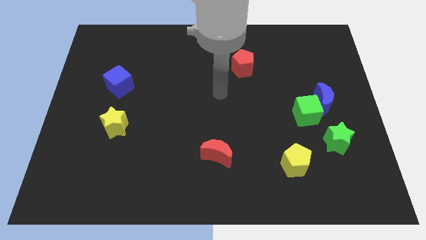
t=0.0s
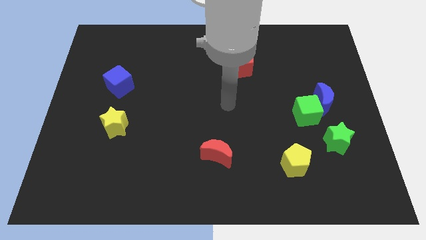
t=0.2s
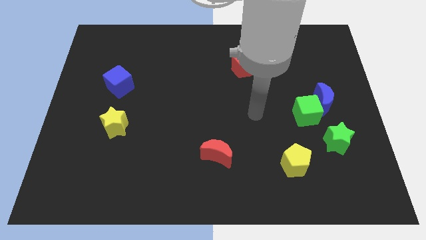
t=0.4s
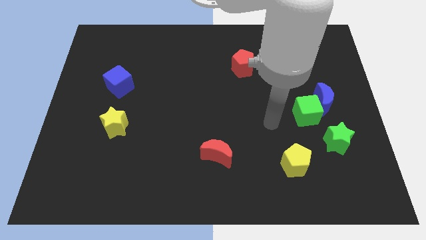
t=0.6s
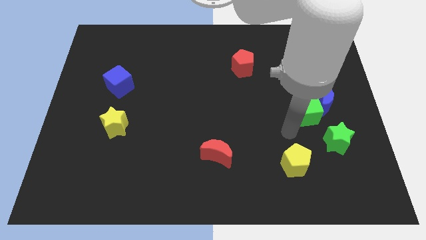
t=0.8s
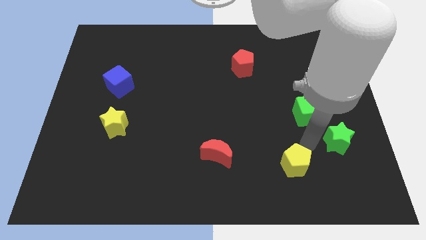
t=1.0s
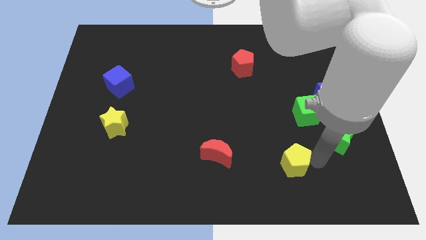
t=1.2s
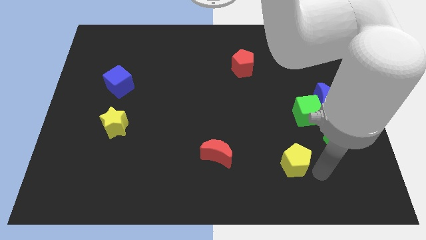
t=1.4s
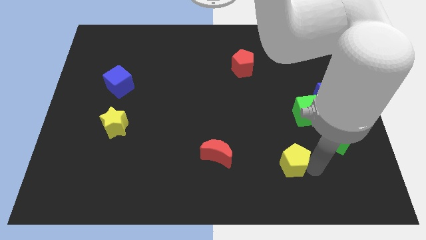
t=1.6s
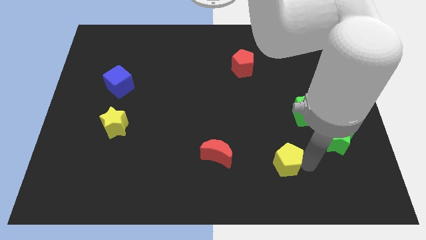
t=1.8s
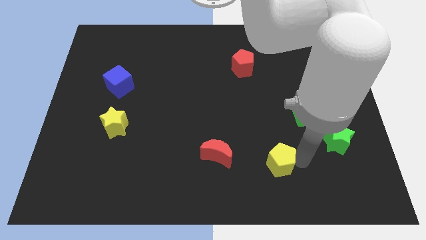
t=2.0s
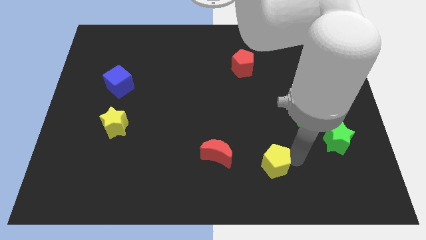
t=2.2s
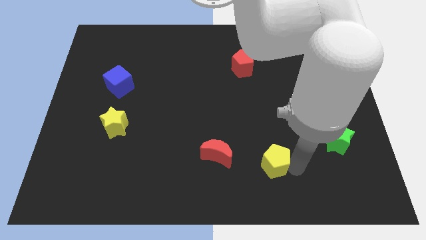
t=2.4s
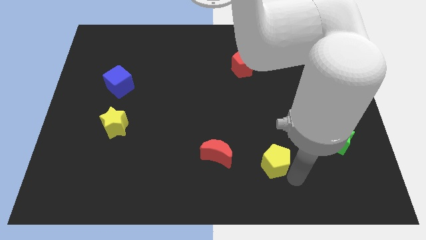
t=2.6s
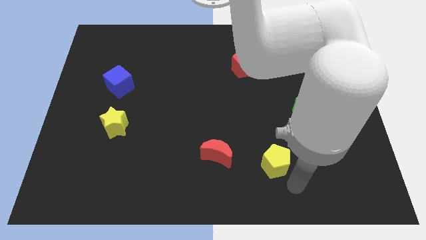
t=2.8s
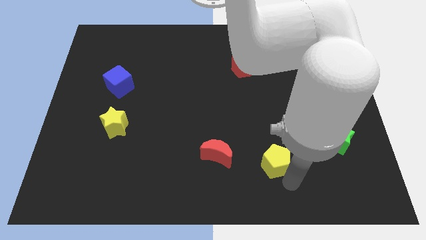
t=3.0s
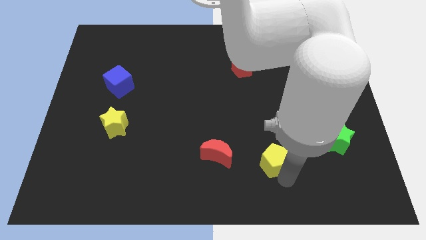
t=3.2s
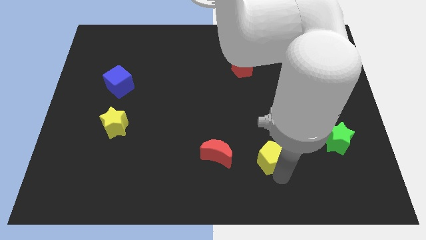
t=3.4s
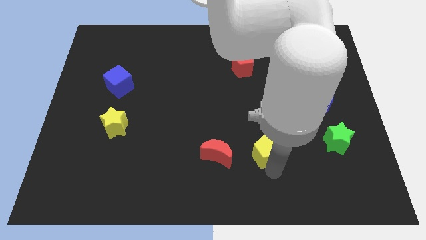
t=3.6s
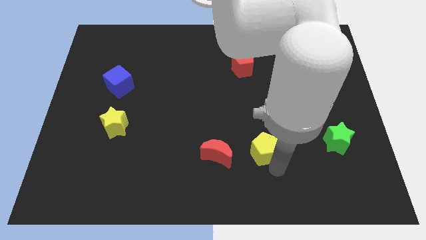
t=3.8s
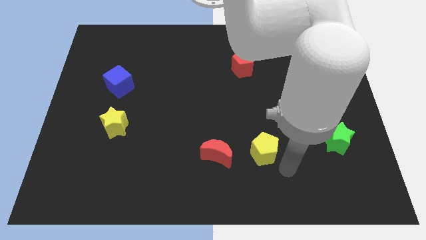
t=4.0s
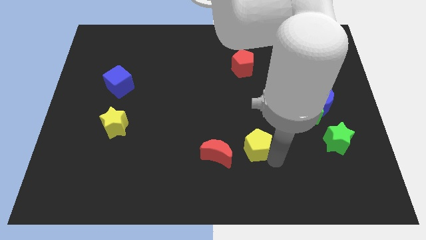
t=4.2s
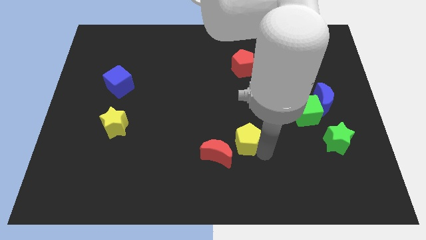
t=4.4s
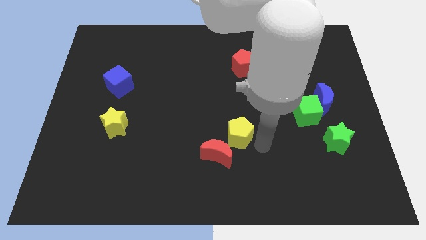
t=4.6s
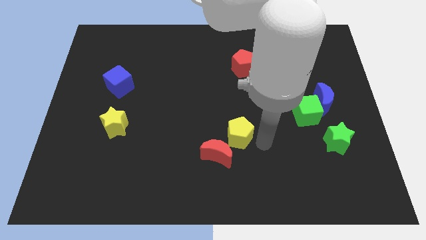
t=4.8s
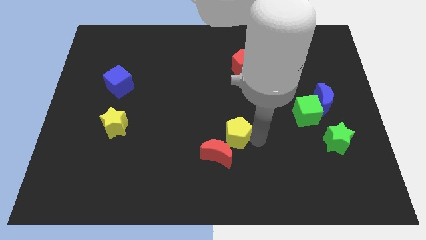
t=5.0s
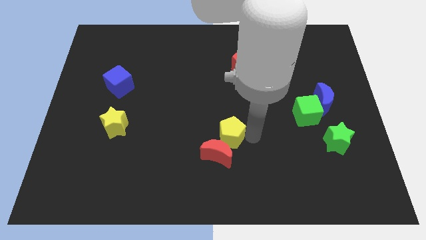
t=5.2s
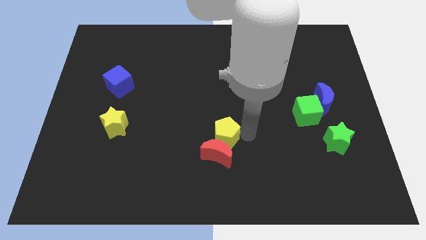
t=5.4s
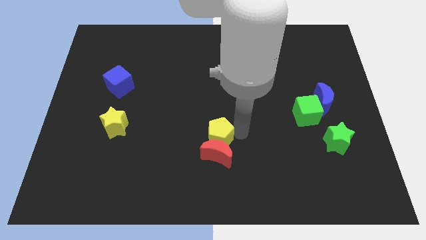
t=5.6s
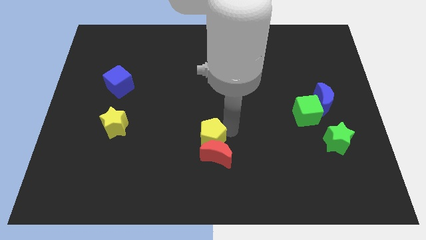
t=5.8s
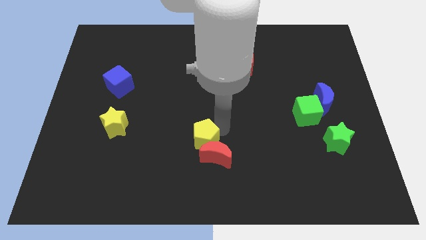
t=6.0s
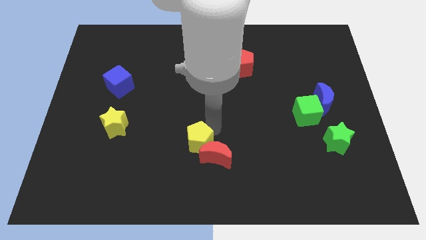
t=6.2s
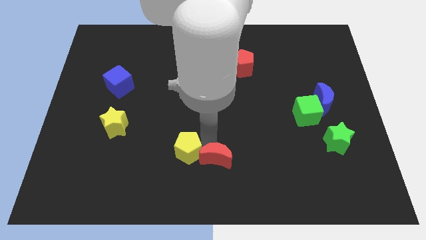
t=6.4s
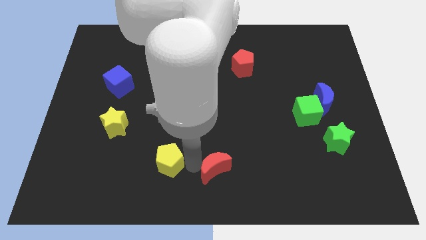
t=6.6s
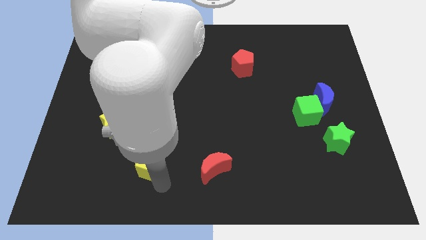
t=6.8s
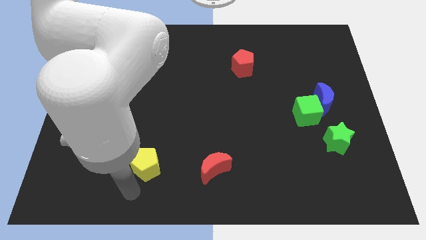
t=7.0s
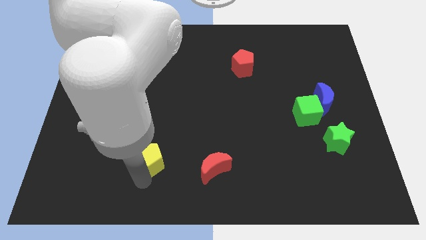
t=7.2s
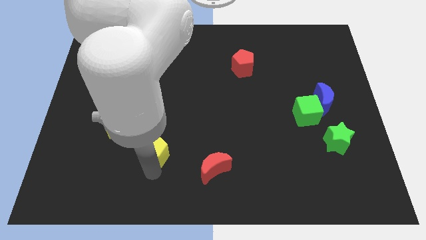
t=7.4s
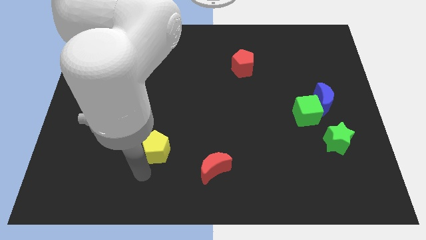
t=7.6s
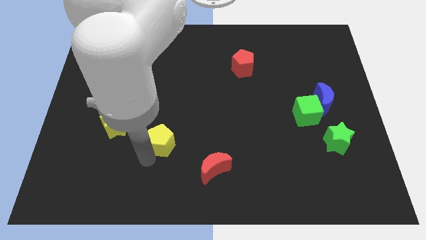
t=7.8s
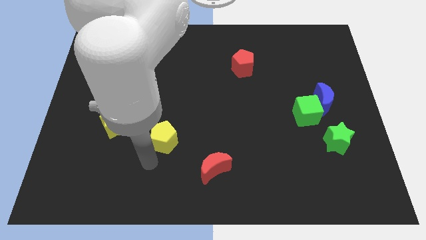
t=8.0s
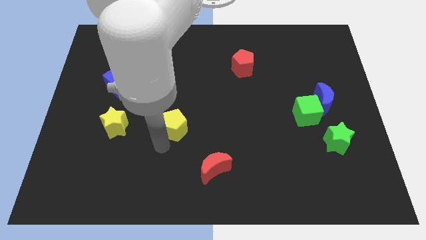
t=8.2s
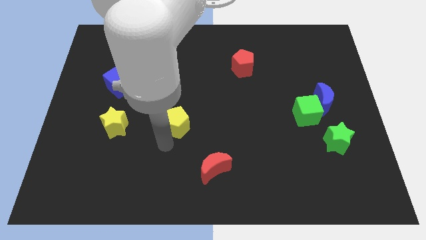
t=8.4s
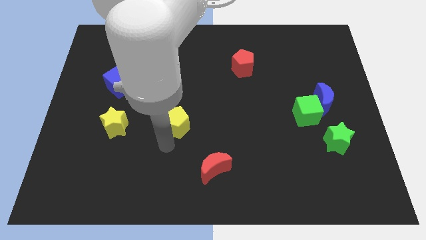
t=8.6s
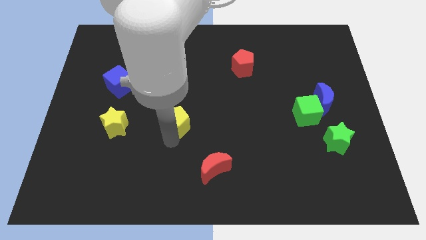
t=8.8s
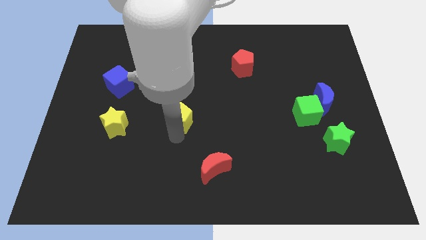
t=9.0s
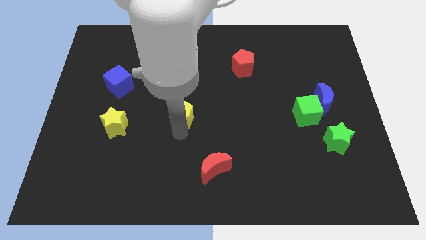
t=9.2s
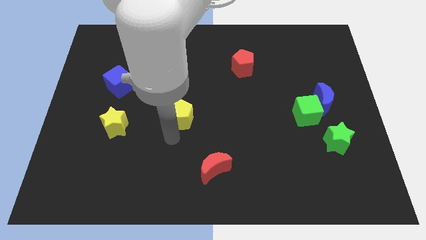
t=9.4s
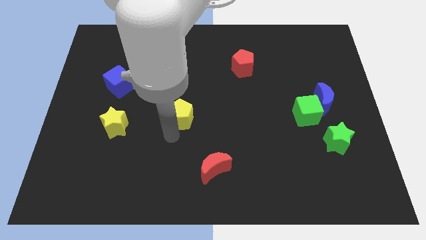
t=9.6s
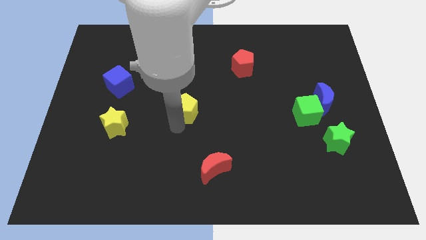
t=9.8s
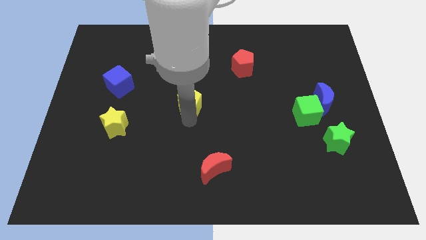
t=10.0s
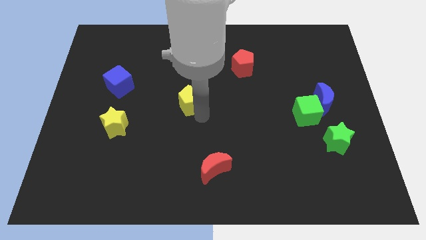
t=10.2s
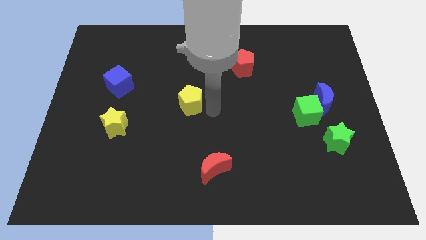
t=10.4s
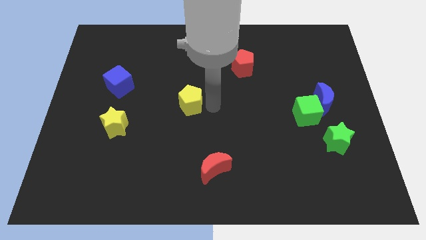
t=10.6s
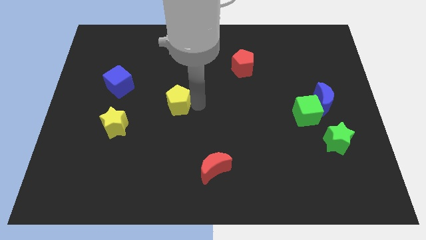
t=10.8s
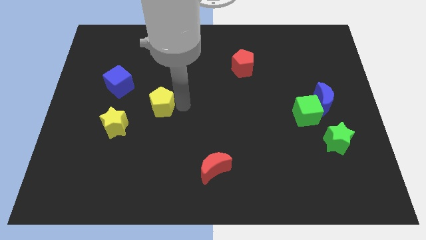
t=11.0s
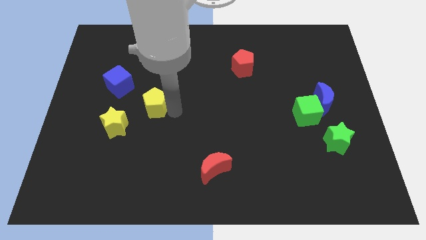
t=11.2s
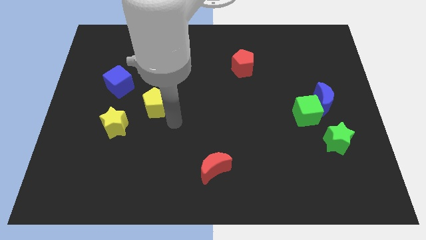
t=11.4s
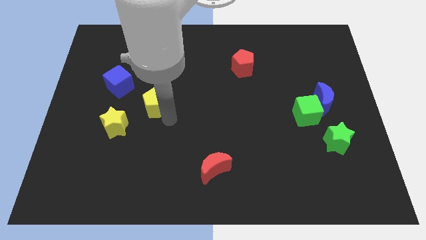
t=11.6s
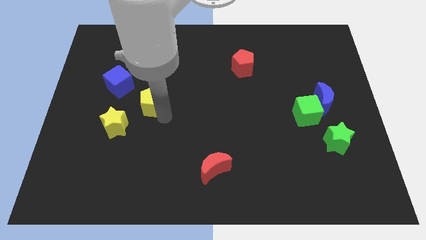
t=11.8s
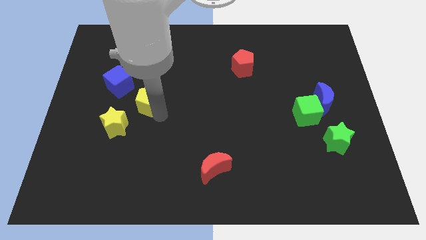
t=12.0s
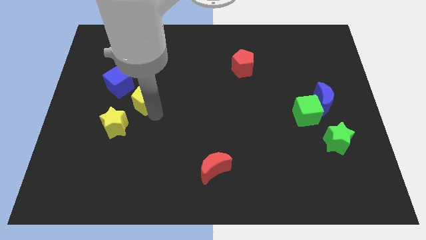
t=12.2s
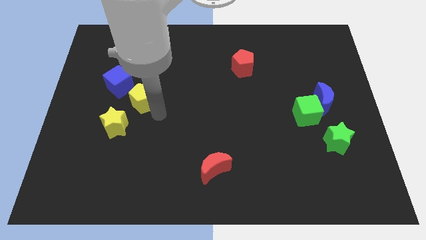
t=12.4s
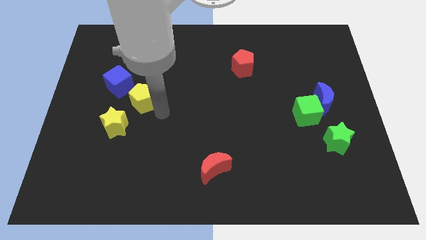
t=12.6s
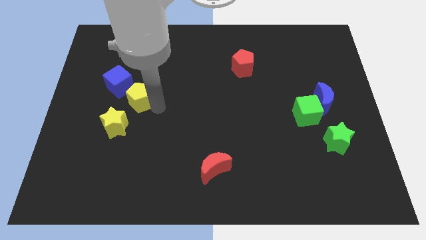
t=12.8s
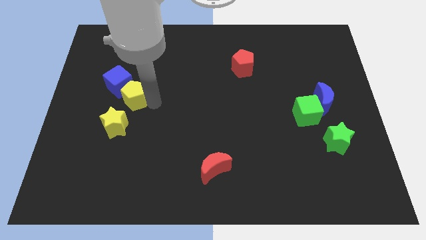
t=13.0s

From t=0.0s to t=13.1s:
push the yellow pentagon to the blue cube
